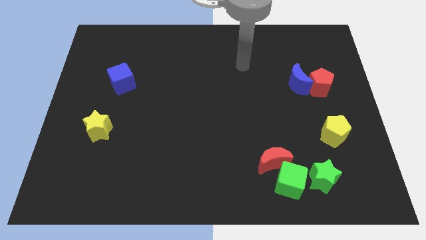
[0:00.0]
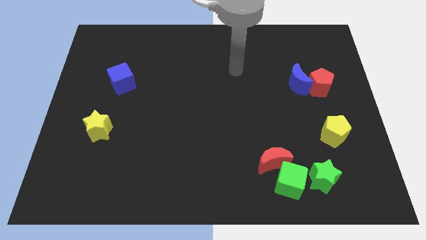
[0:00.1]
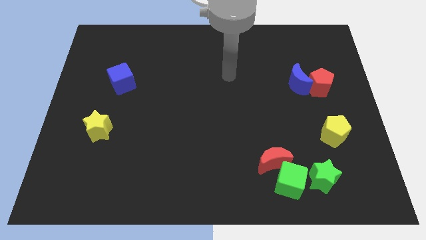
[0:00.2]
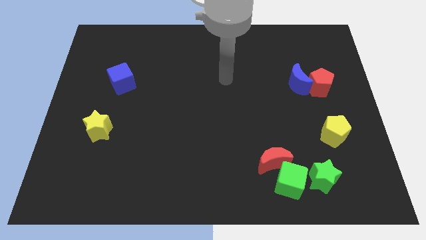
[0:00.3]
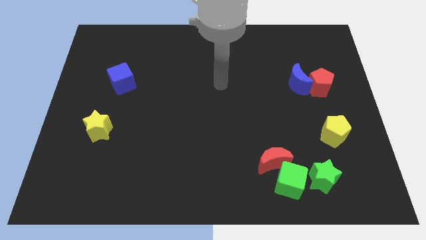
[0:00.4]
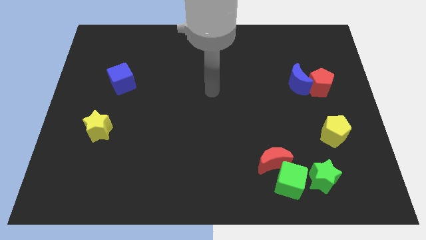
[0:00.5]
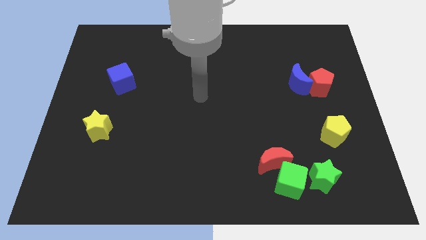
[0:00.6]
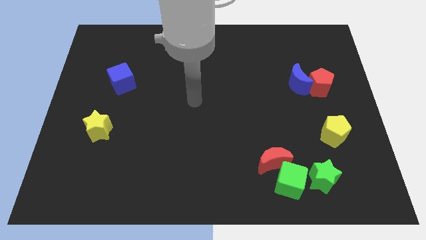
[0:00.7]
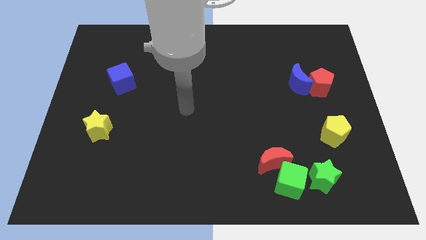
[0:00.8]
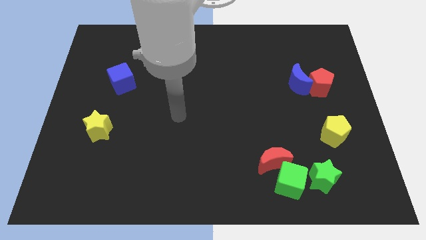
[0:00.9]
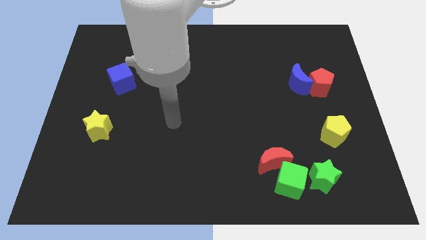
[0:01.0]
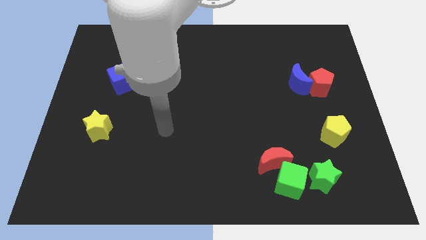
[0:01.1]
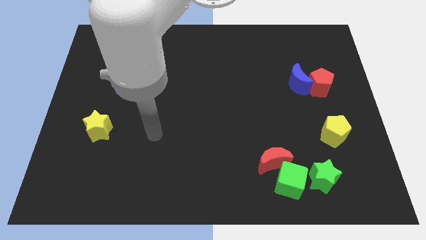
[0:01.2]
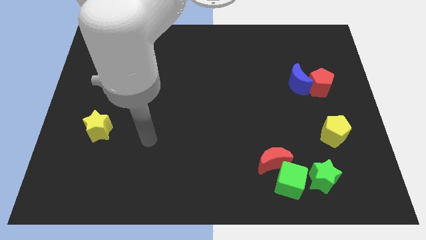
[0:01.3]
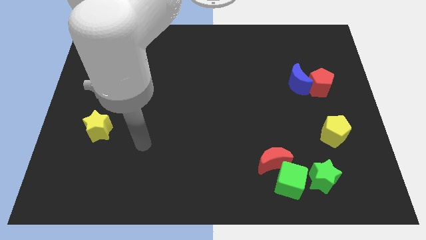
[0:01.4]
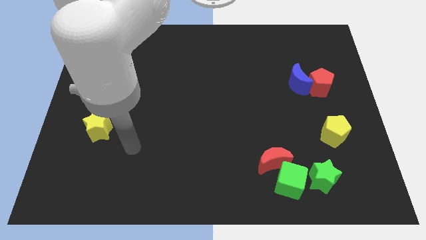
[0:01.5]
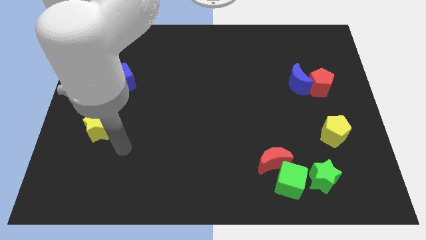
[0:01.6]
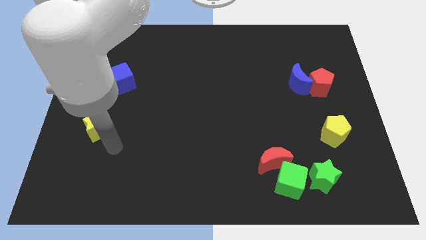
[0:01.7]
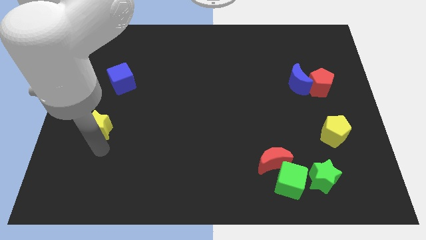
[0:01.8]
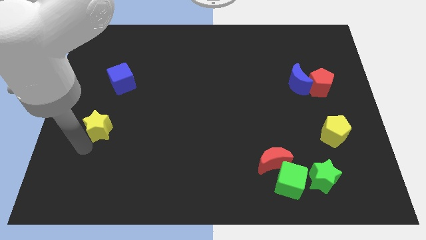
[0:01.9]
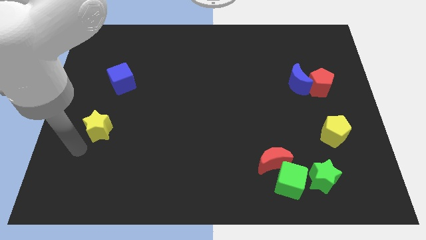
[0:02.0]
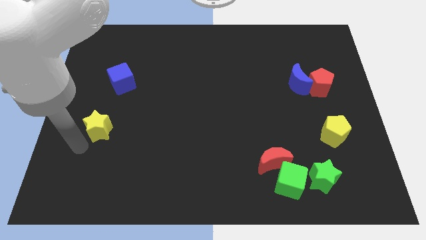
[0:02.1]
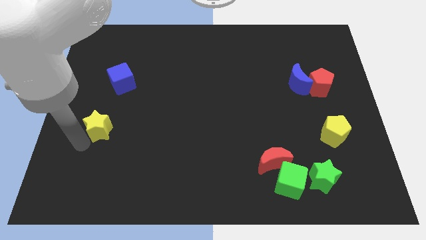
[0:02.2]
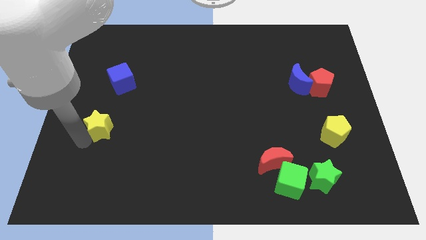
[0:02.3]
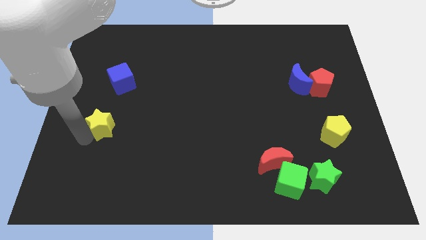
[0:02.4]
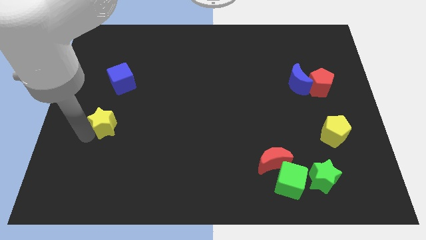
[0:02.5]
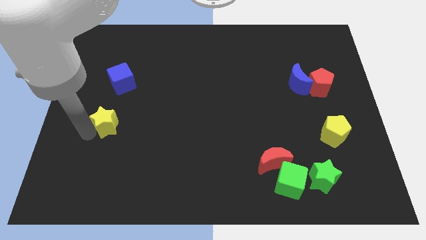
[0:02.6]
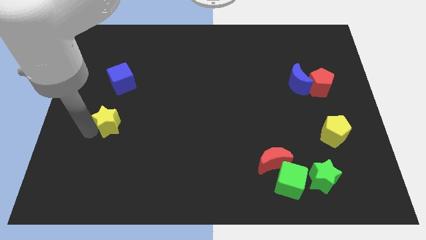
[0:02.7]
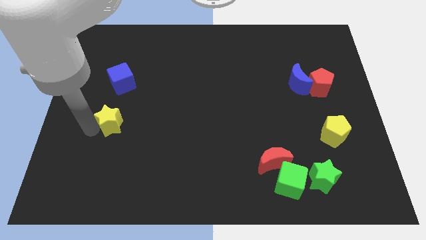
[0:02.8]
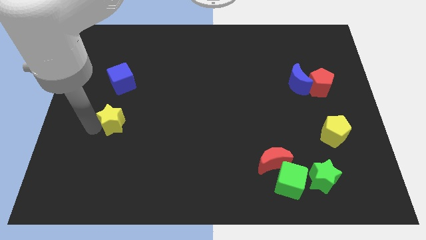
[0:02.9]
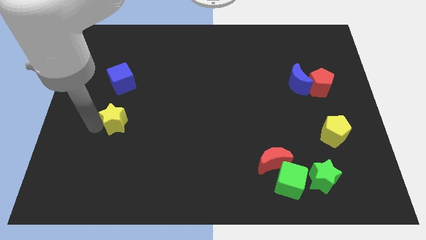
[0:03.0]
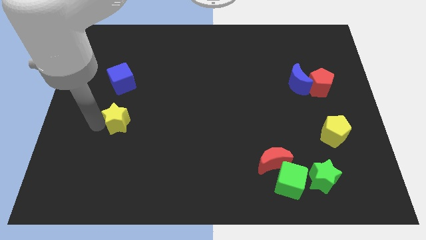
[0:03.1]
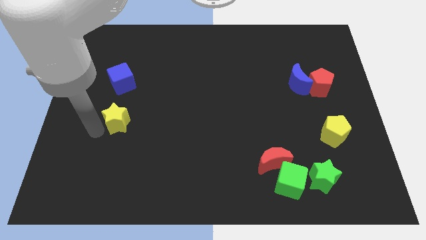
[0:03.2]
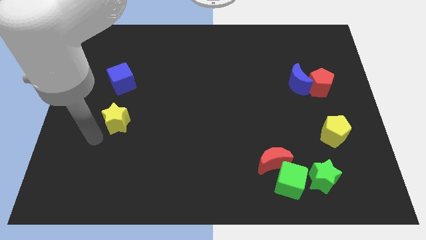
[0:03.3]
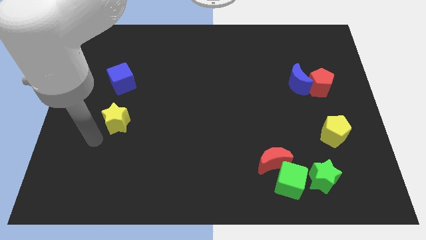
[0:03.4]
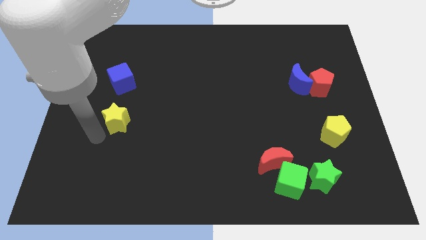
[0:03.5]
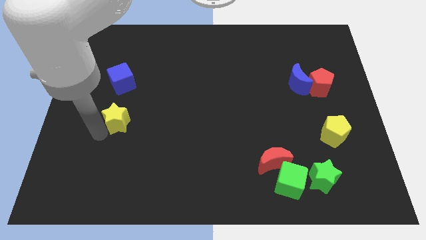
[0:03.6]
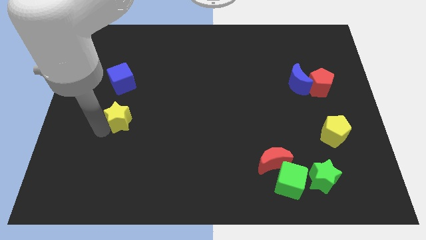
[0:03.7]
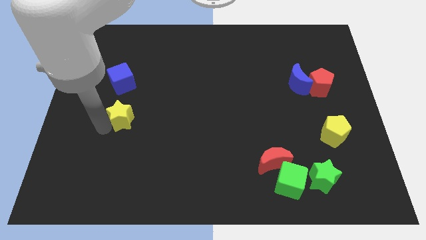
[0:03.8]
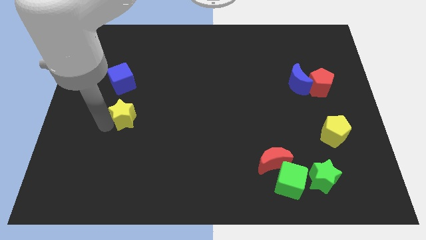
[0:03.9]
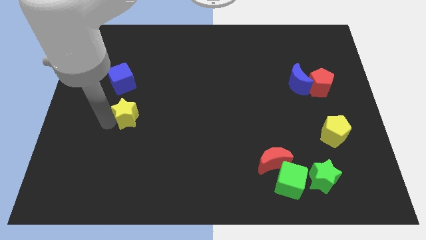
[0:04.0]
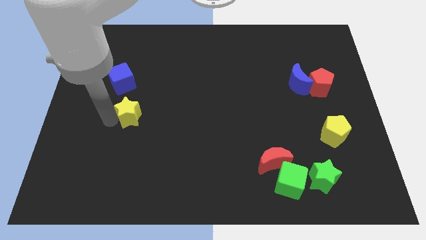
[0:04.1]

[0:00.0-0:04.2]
slide the yellow star upwards and to the right diagonally slightly

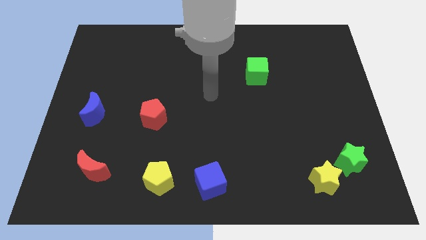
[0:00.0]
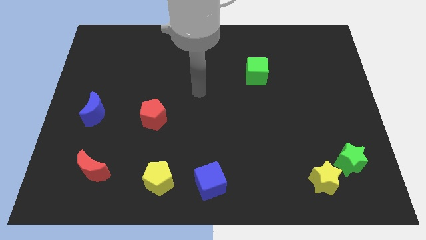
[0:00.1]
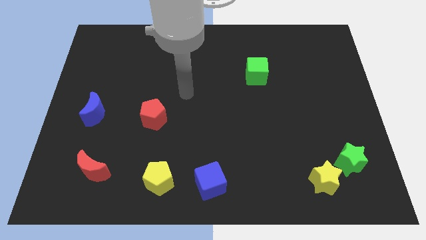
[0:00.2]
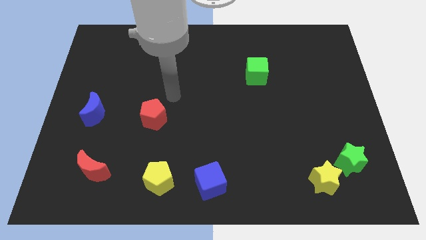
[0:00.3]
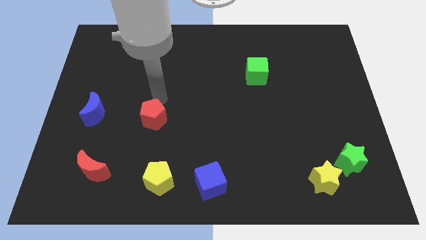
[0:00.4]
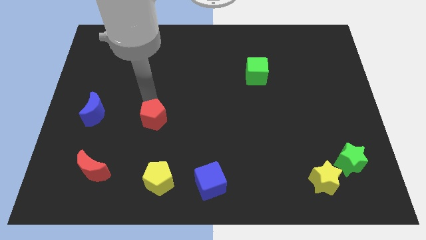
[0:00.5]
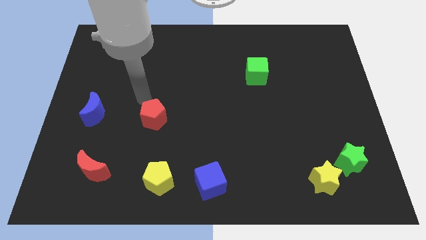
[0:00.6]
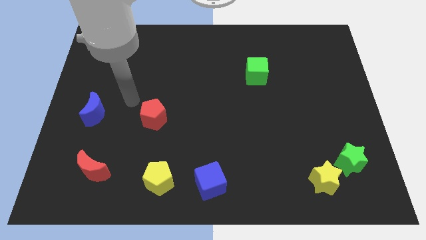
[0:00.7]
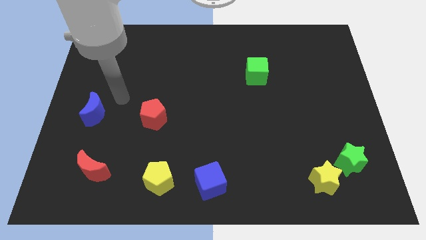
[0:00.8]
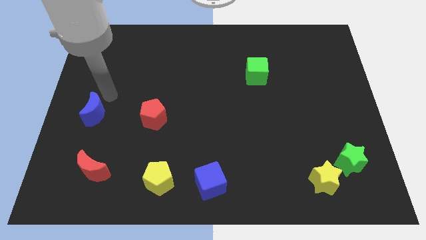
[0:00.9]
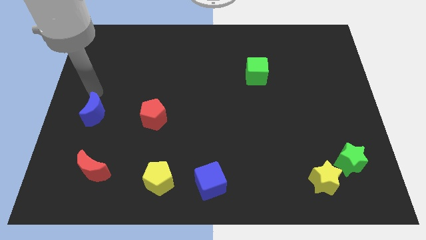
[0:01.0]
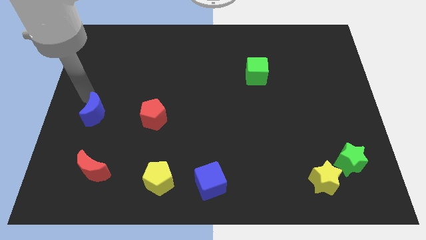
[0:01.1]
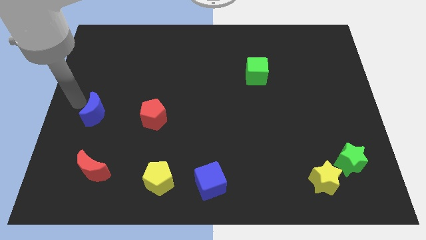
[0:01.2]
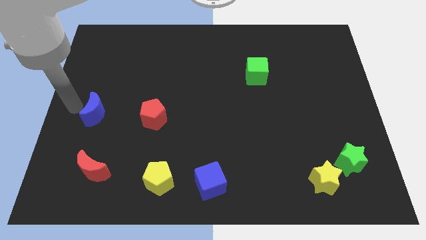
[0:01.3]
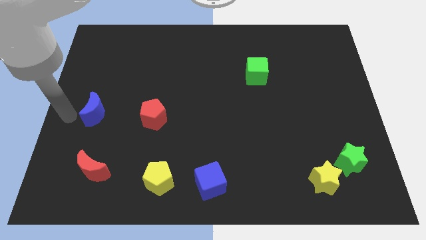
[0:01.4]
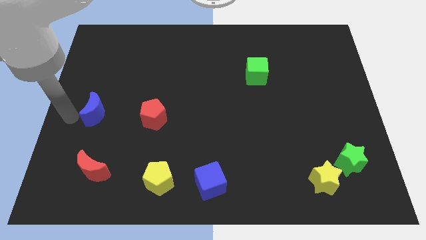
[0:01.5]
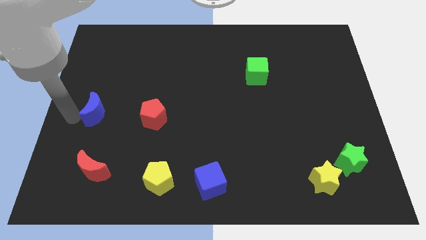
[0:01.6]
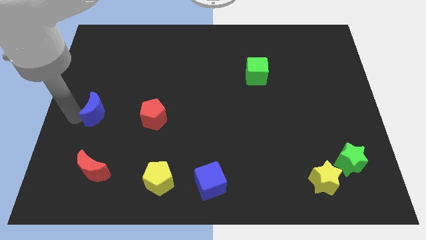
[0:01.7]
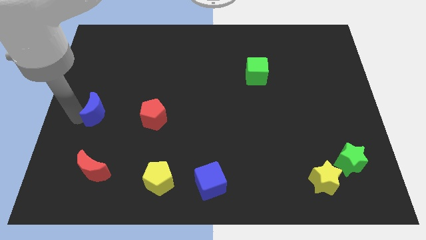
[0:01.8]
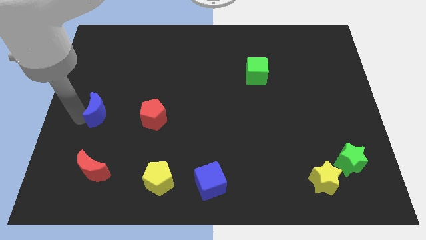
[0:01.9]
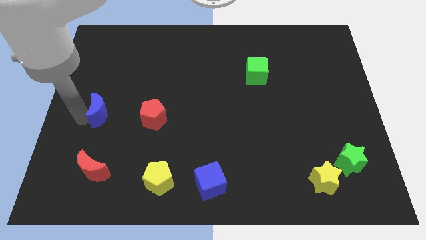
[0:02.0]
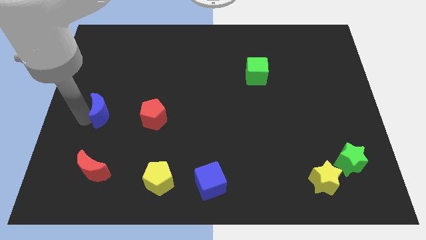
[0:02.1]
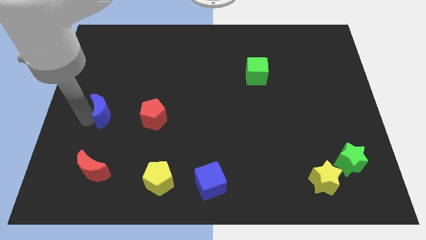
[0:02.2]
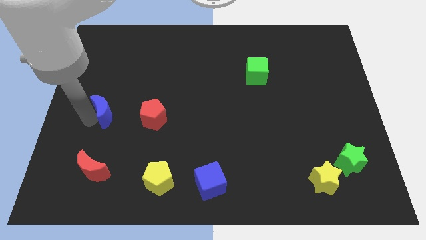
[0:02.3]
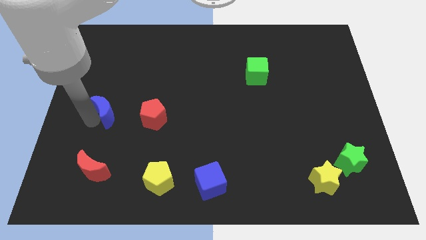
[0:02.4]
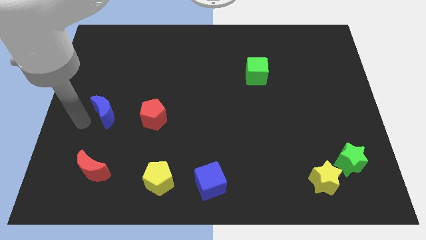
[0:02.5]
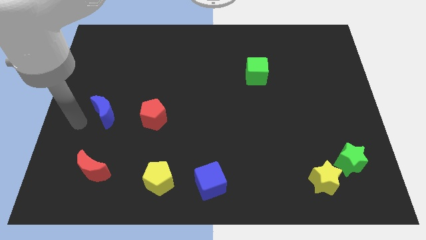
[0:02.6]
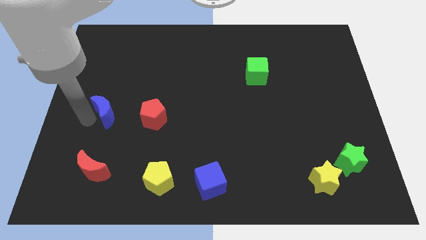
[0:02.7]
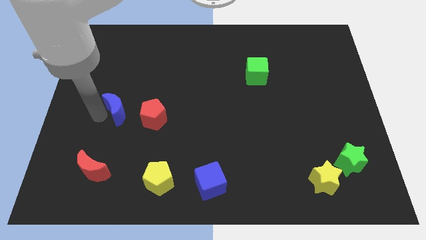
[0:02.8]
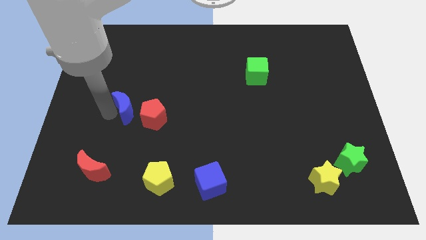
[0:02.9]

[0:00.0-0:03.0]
slightly push the blue moon to the right

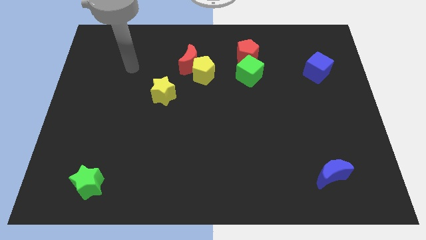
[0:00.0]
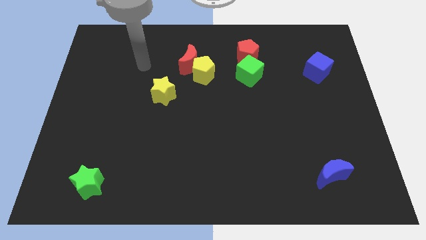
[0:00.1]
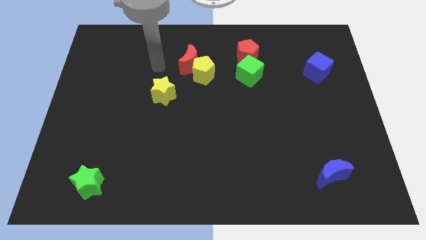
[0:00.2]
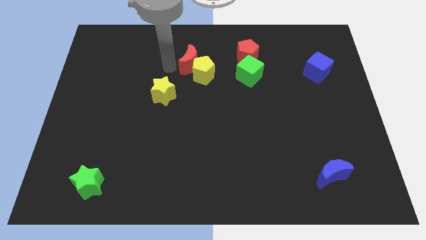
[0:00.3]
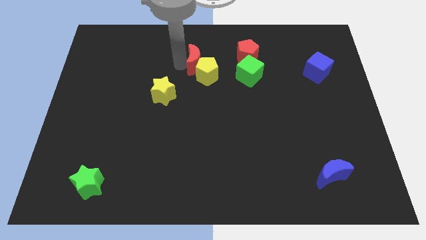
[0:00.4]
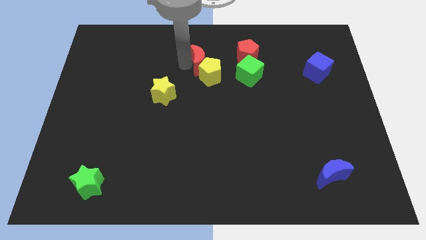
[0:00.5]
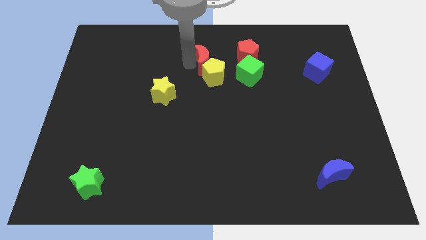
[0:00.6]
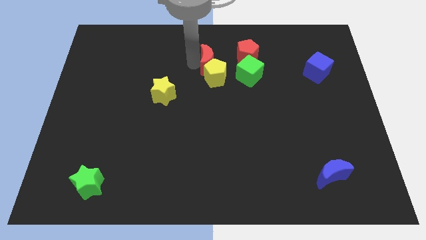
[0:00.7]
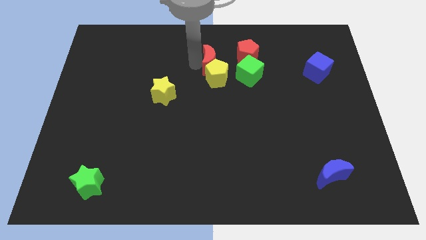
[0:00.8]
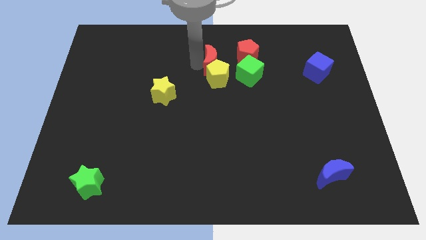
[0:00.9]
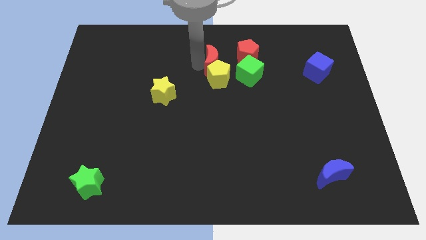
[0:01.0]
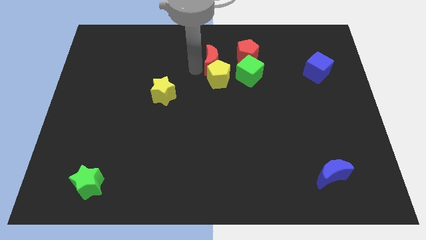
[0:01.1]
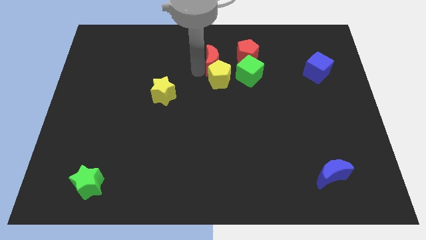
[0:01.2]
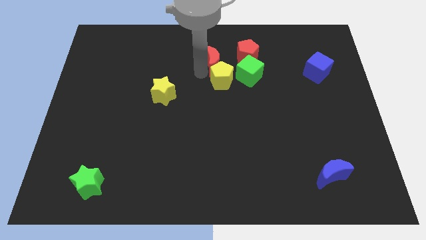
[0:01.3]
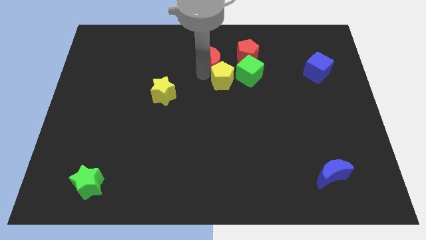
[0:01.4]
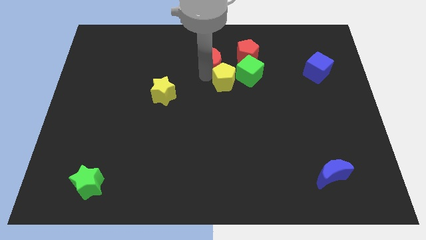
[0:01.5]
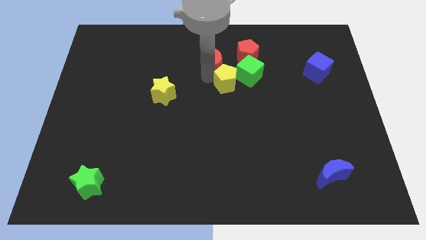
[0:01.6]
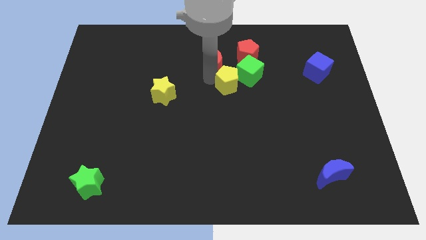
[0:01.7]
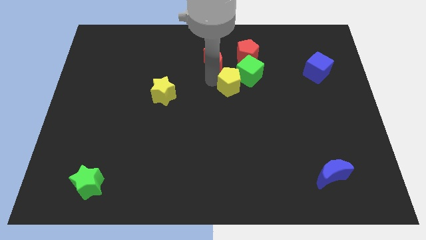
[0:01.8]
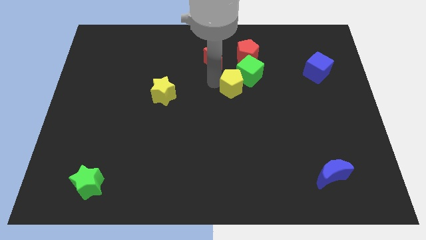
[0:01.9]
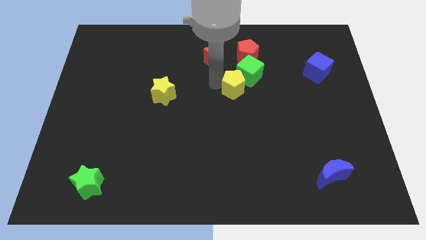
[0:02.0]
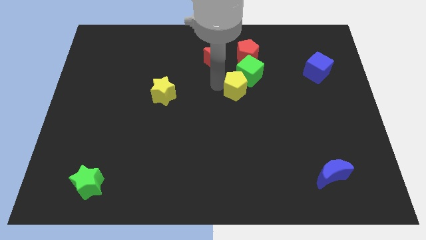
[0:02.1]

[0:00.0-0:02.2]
move the yellow pentagon a little bit right
